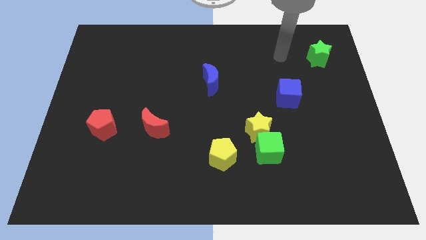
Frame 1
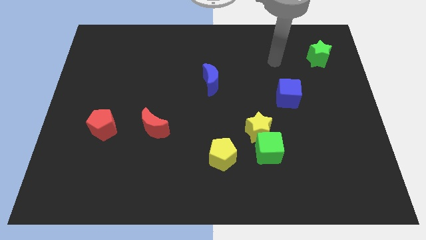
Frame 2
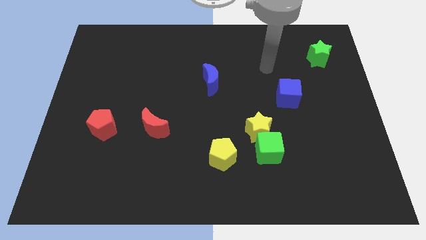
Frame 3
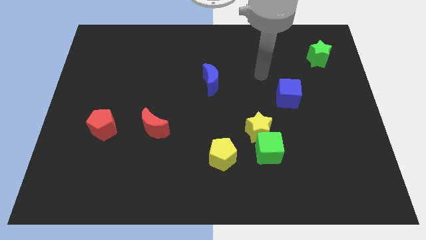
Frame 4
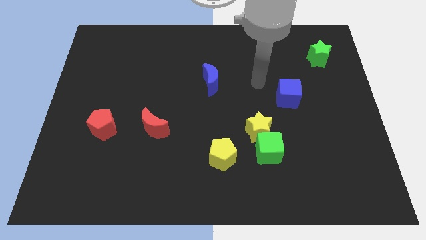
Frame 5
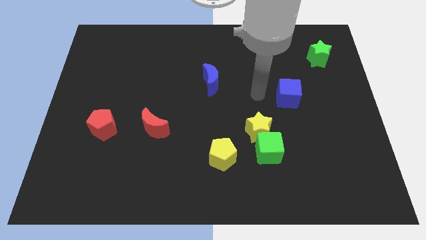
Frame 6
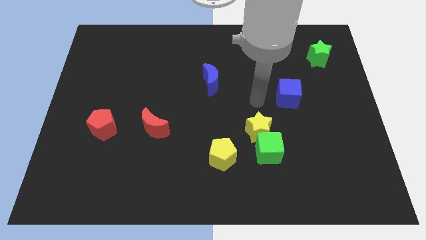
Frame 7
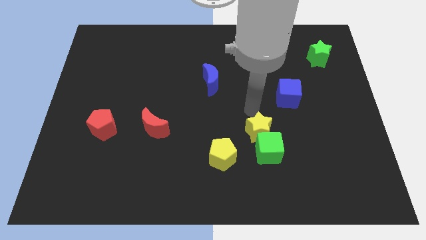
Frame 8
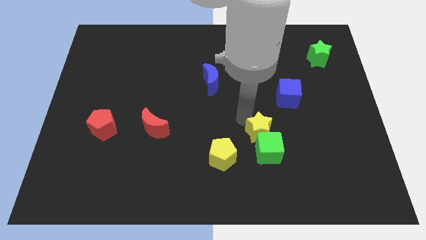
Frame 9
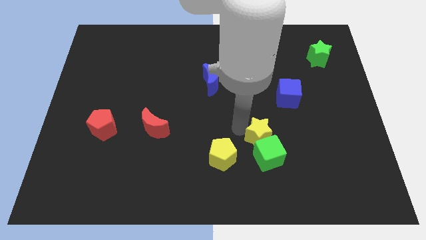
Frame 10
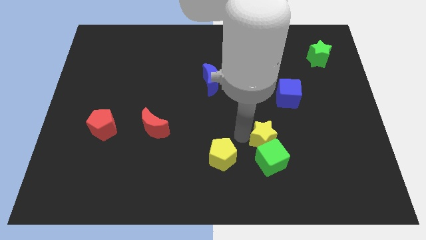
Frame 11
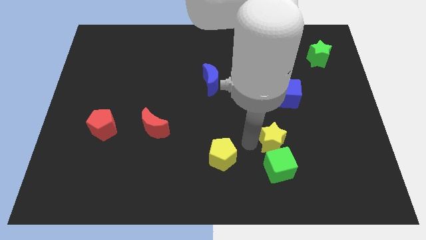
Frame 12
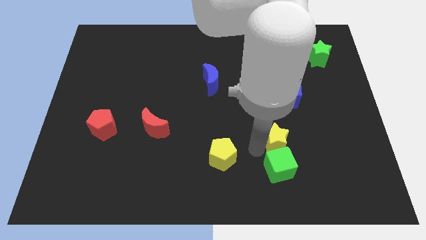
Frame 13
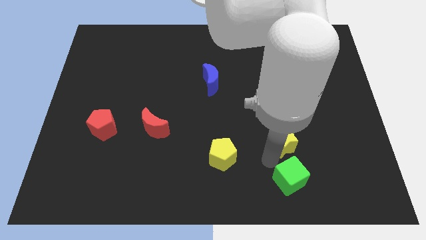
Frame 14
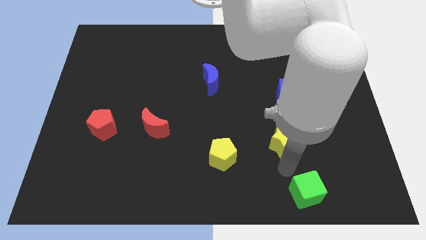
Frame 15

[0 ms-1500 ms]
separate the yellow star from the green cube

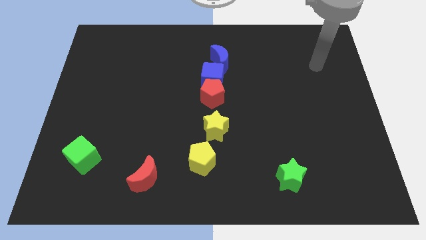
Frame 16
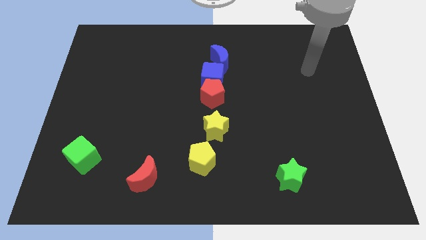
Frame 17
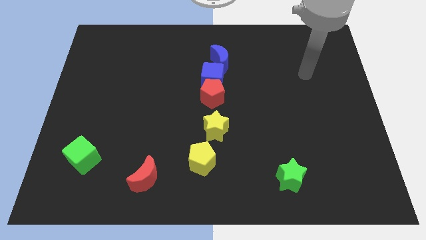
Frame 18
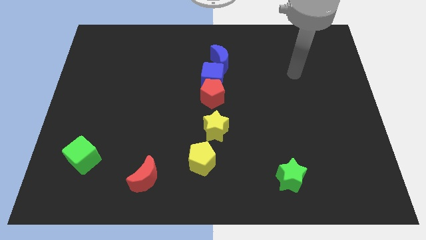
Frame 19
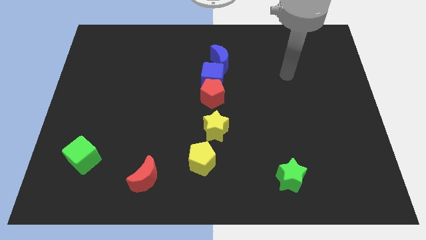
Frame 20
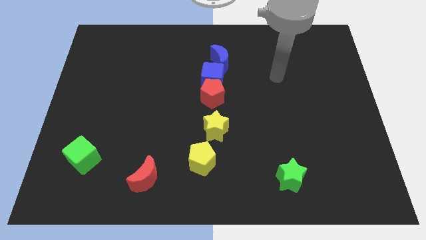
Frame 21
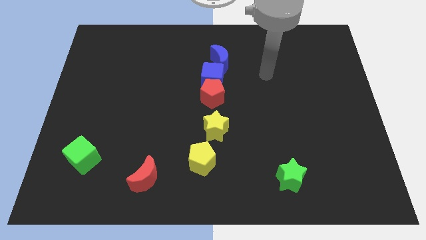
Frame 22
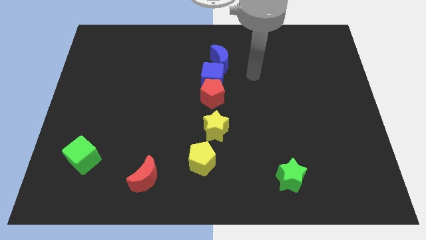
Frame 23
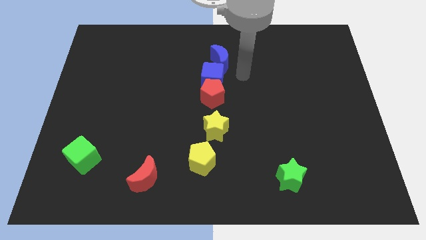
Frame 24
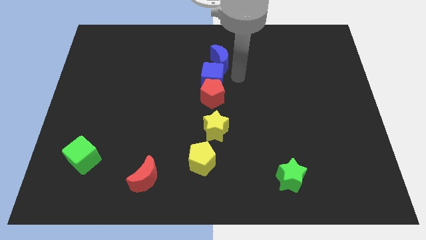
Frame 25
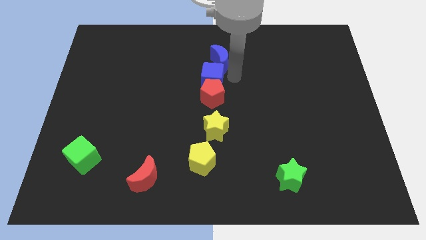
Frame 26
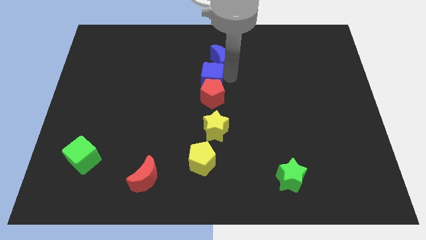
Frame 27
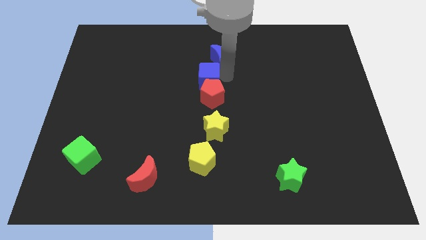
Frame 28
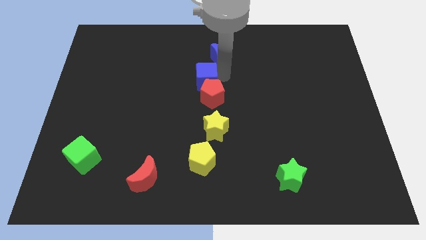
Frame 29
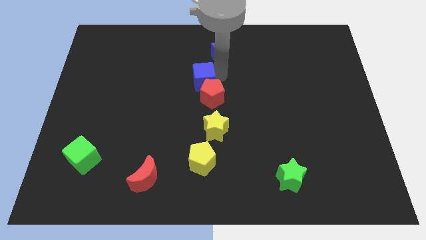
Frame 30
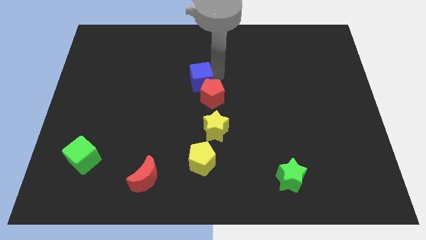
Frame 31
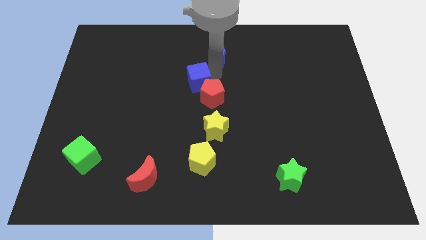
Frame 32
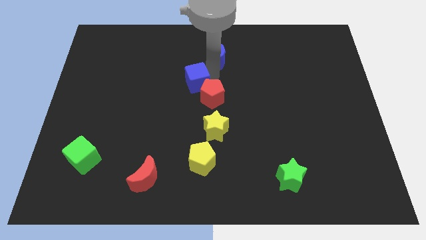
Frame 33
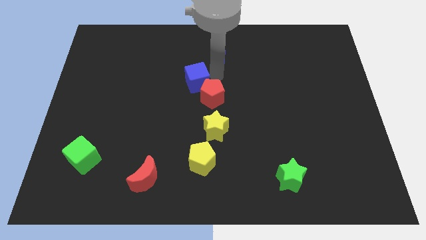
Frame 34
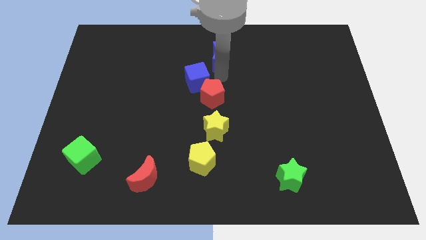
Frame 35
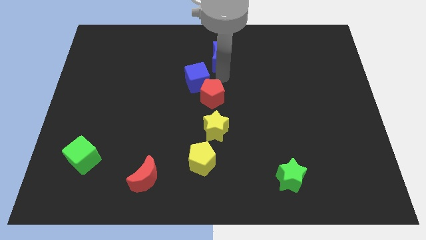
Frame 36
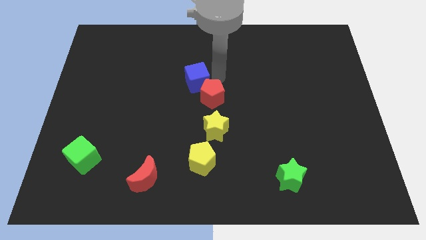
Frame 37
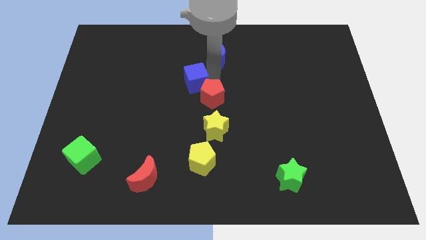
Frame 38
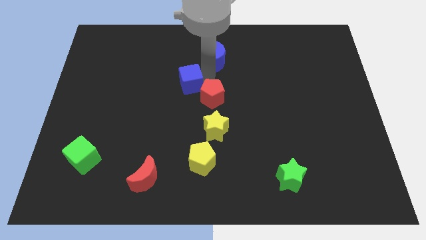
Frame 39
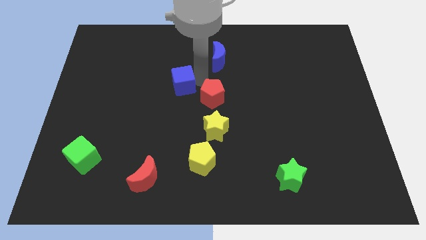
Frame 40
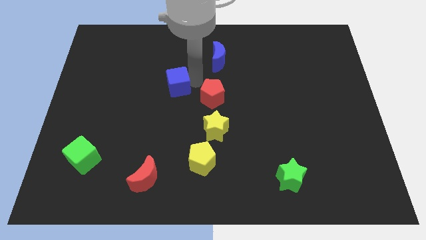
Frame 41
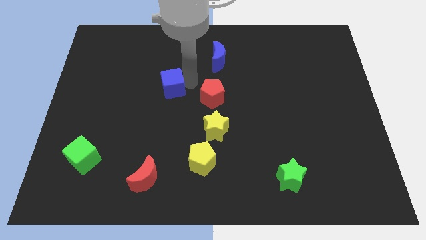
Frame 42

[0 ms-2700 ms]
pull the blue cube apart from the red pentagon and blue moon

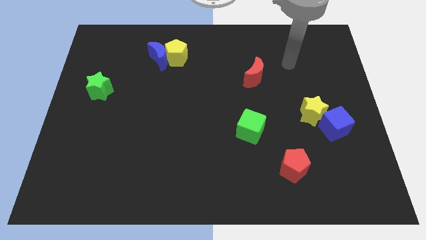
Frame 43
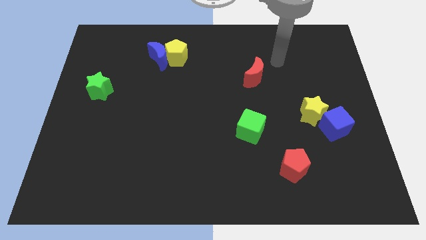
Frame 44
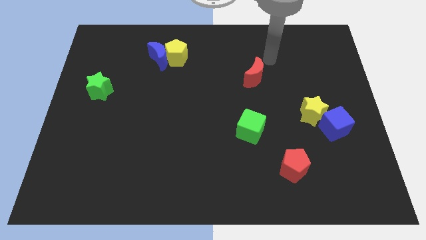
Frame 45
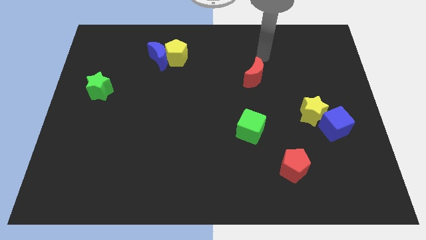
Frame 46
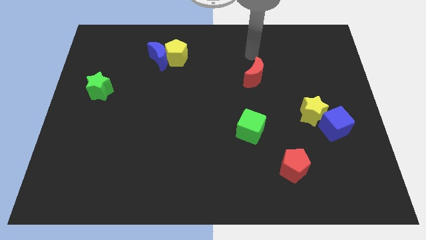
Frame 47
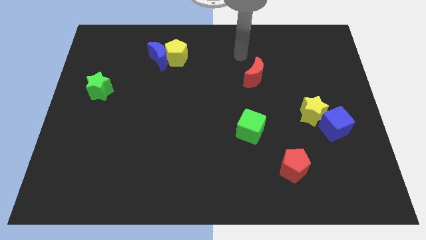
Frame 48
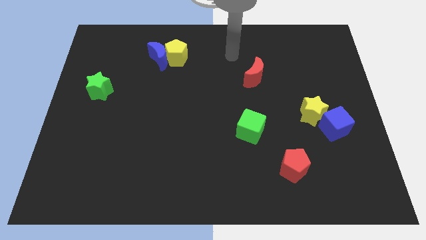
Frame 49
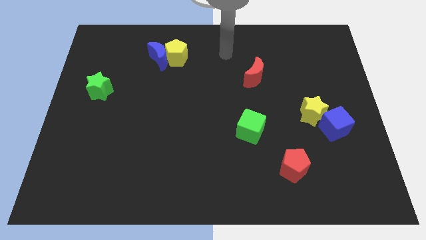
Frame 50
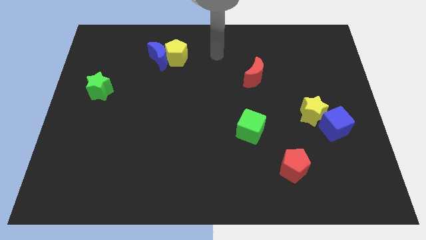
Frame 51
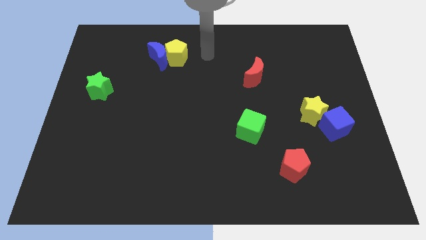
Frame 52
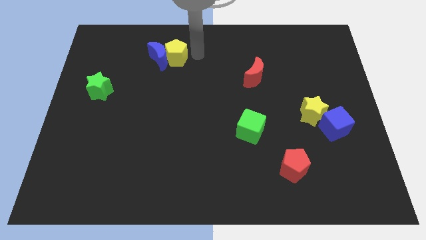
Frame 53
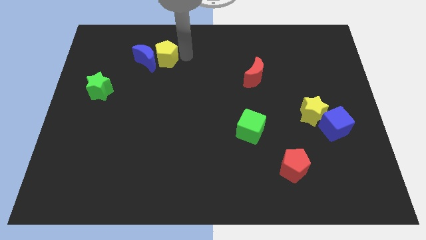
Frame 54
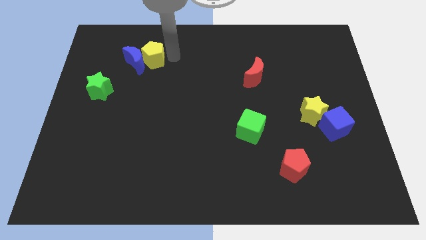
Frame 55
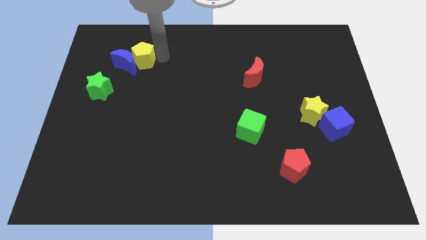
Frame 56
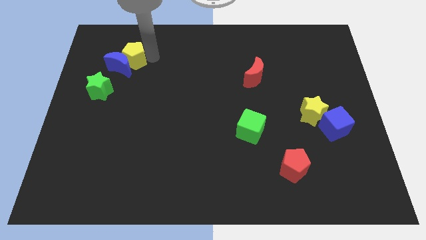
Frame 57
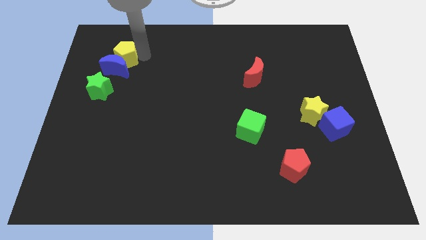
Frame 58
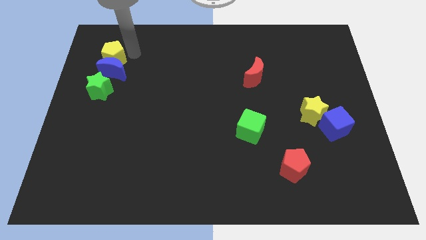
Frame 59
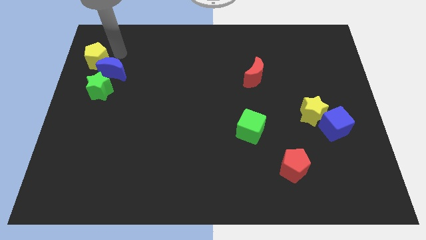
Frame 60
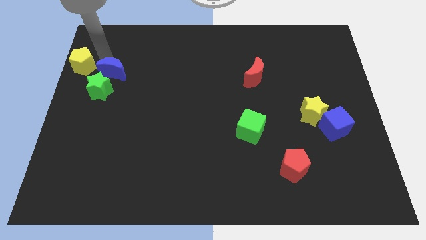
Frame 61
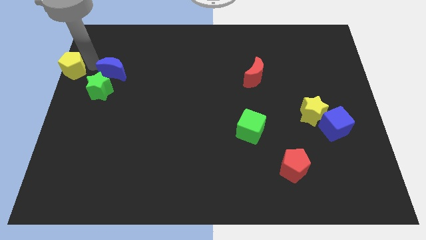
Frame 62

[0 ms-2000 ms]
separate the blue moon from the yellow pentagon

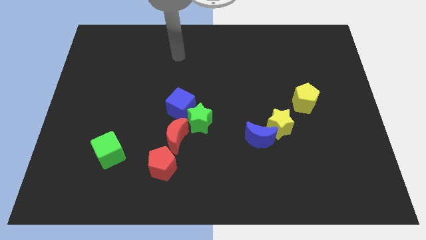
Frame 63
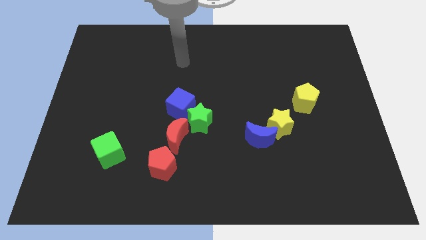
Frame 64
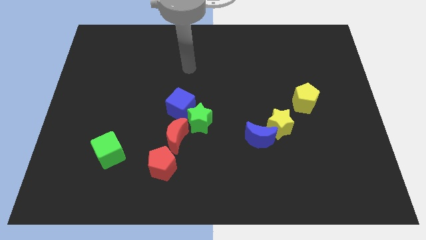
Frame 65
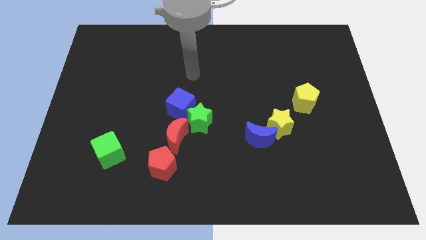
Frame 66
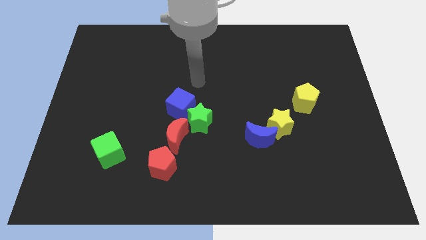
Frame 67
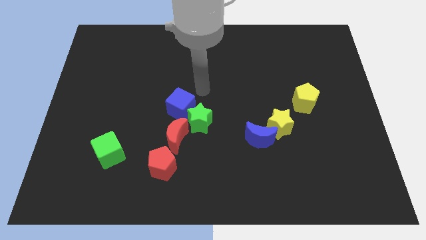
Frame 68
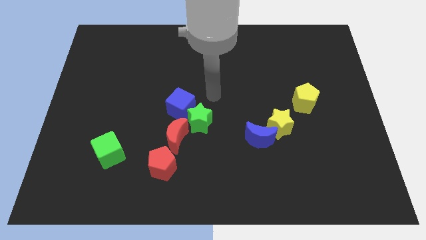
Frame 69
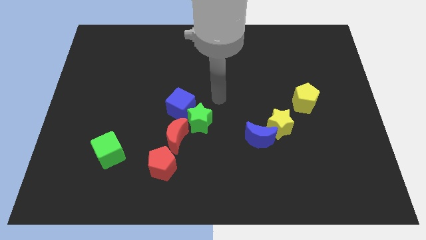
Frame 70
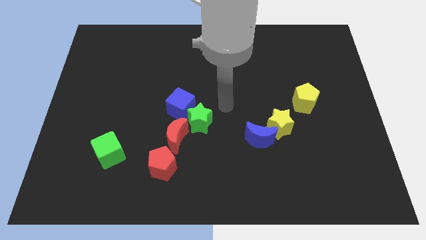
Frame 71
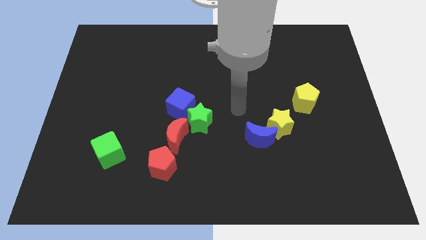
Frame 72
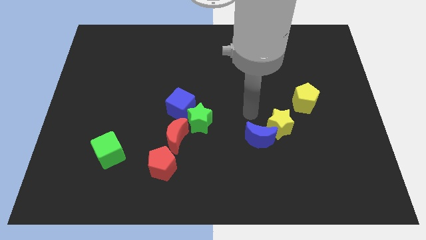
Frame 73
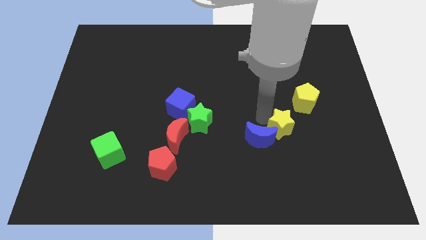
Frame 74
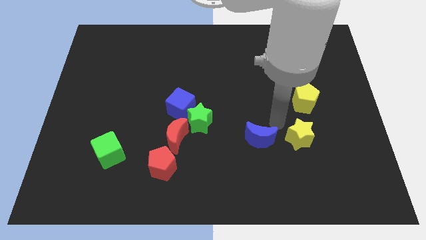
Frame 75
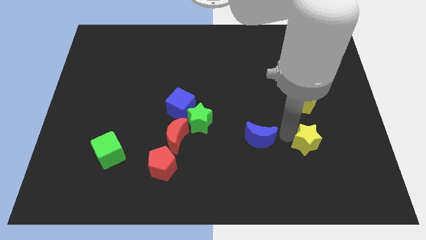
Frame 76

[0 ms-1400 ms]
pull the blue moon apart from the yellow star

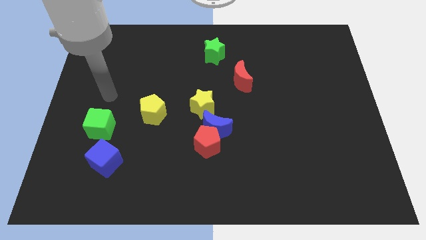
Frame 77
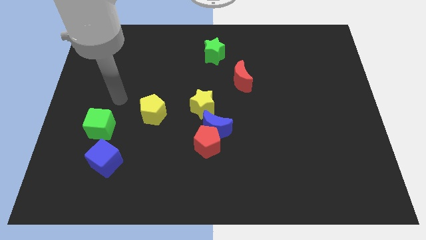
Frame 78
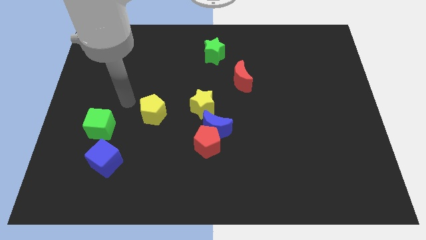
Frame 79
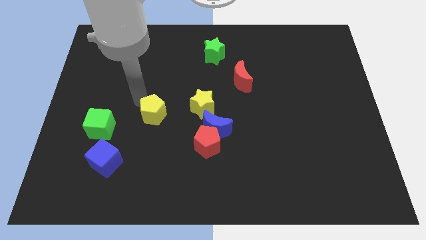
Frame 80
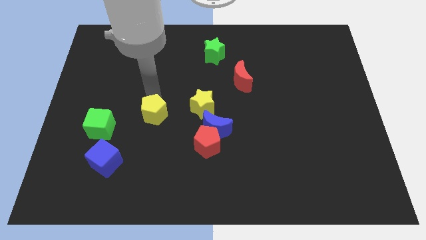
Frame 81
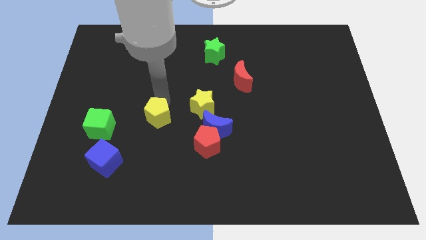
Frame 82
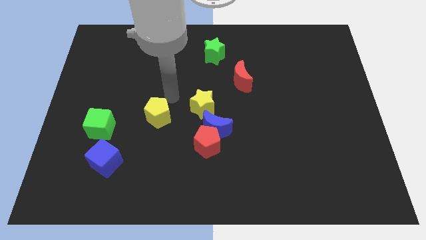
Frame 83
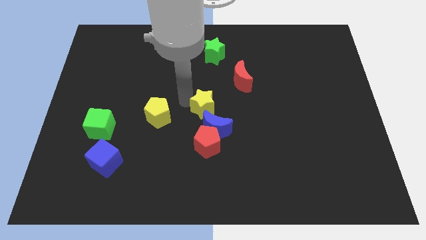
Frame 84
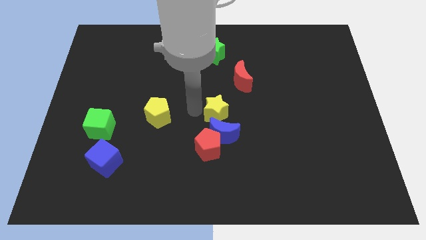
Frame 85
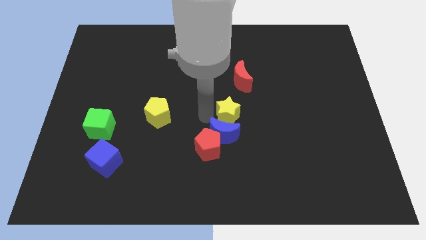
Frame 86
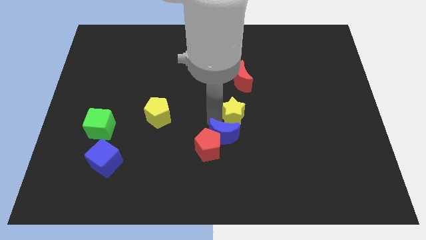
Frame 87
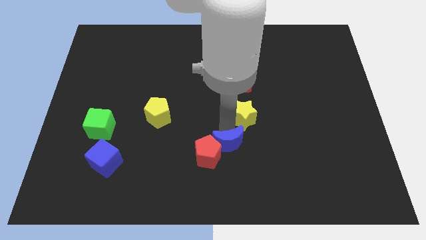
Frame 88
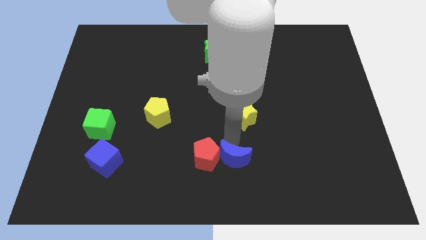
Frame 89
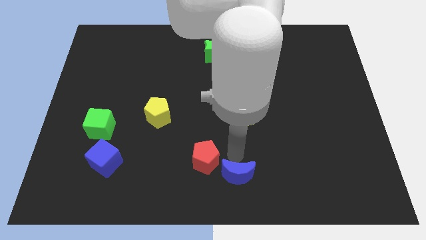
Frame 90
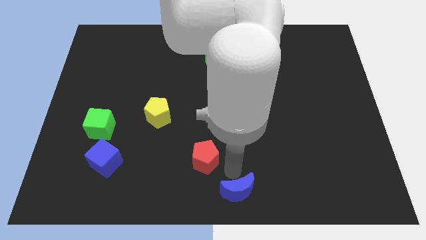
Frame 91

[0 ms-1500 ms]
move the red pentagon away from the blue moon

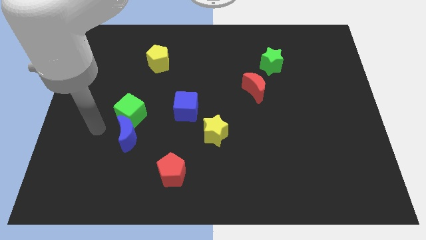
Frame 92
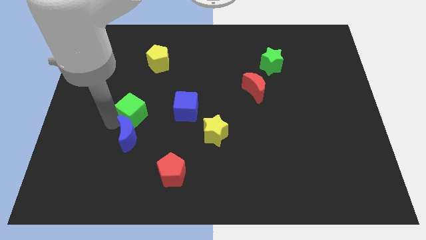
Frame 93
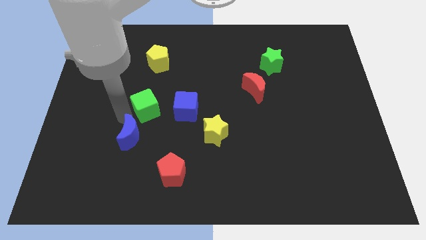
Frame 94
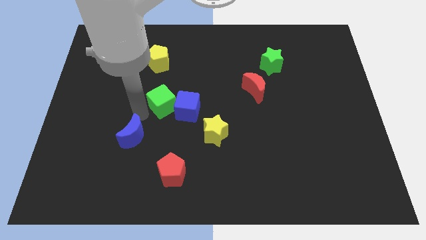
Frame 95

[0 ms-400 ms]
pull the blue moon apart from the green cube
